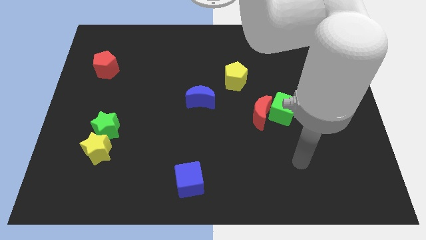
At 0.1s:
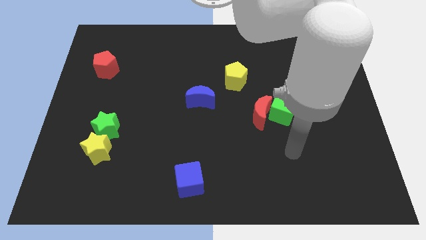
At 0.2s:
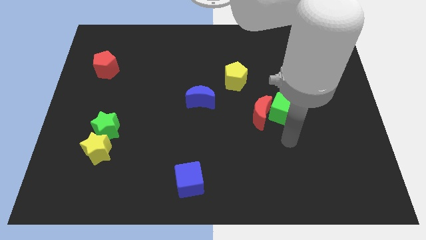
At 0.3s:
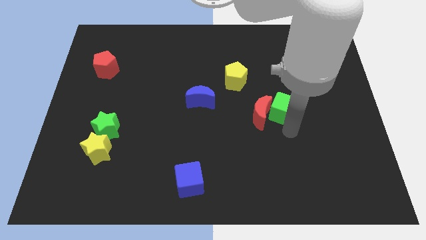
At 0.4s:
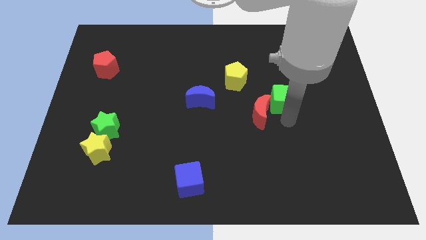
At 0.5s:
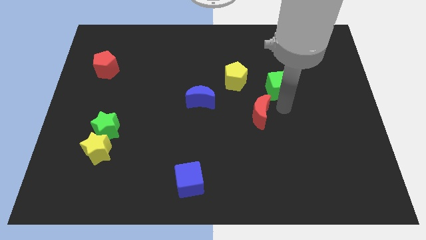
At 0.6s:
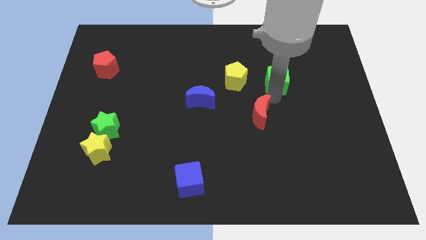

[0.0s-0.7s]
move the red moon away from the green cube

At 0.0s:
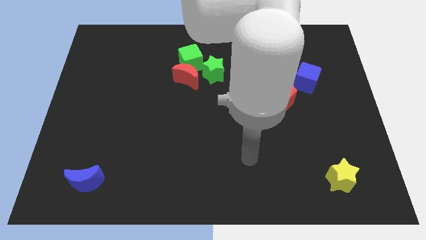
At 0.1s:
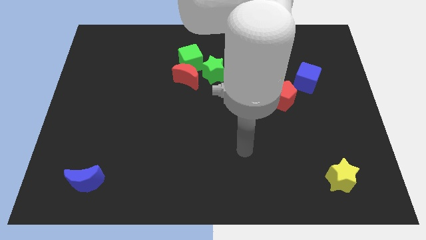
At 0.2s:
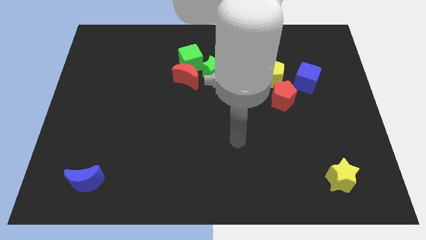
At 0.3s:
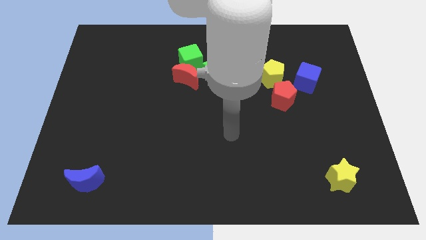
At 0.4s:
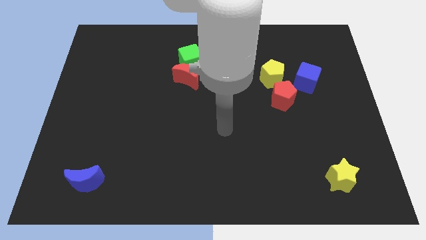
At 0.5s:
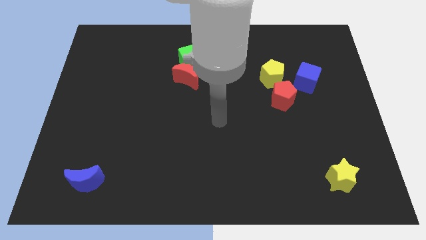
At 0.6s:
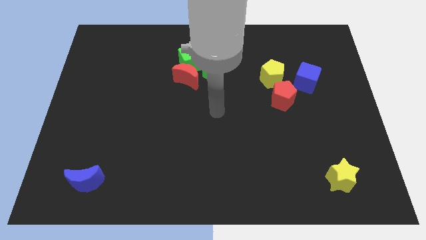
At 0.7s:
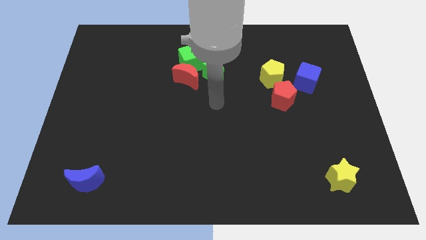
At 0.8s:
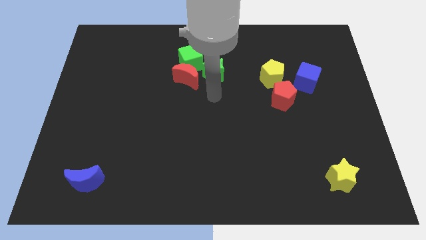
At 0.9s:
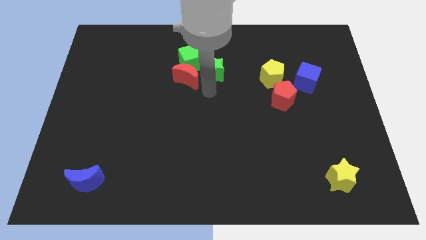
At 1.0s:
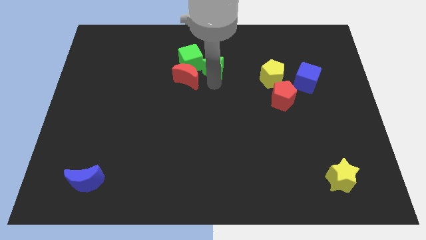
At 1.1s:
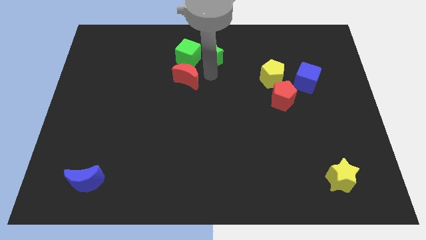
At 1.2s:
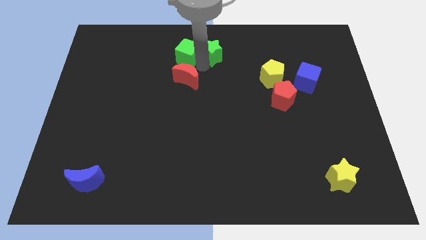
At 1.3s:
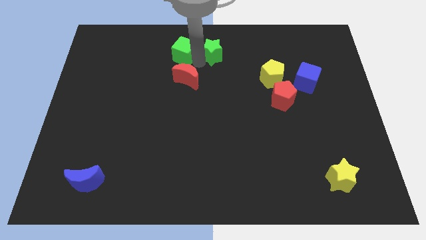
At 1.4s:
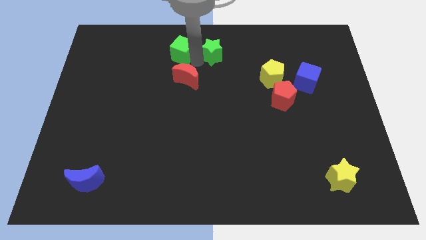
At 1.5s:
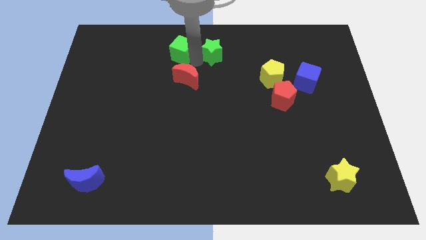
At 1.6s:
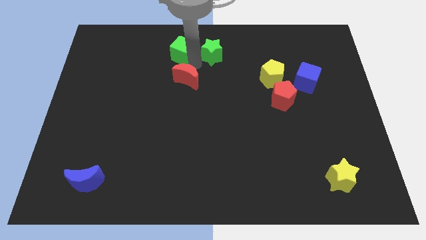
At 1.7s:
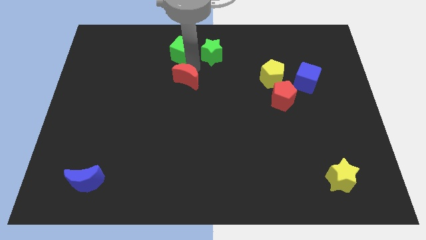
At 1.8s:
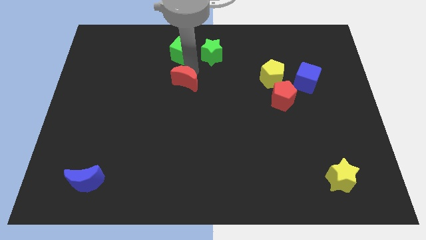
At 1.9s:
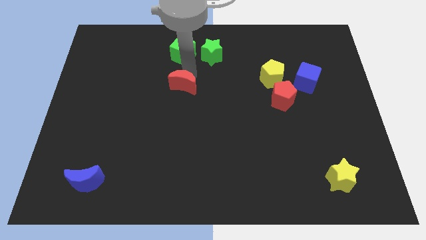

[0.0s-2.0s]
separate the red moon from the green cube and green star

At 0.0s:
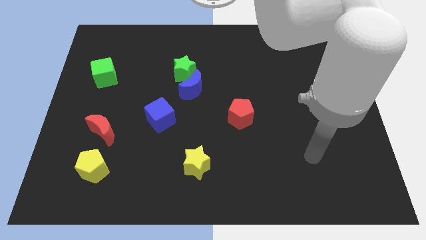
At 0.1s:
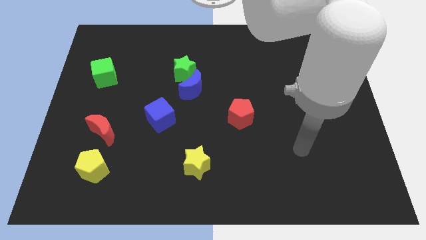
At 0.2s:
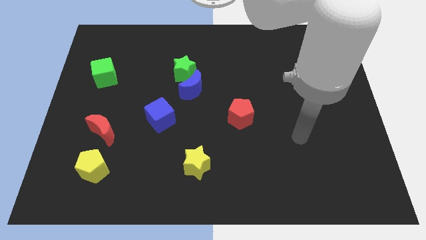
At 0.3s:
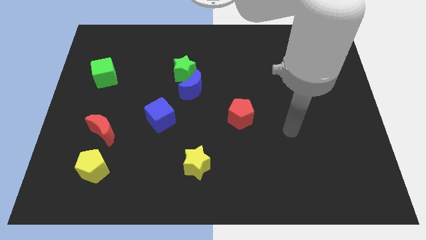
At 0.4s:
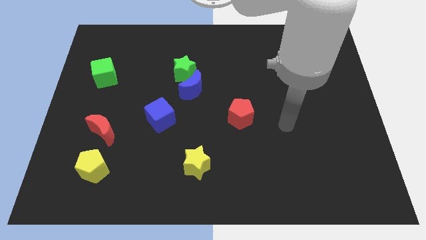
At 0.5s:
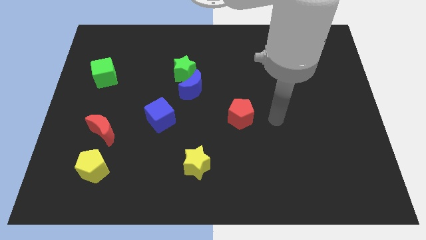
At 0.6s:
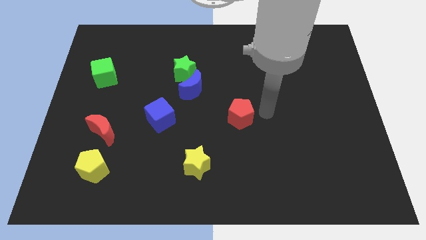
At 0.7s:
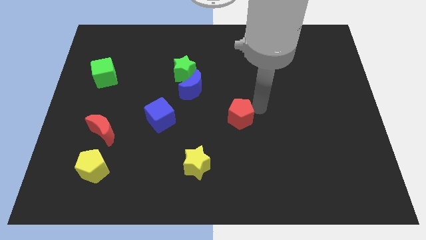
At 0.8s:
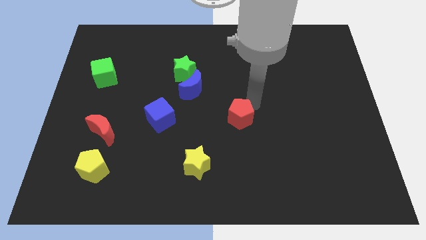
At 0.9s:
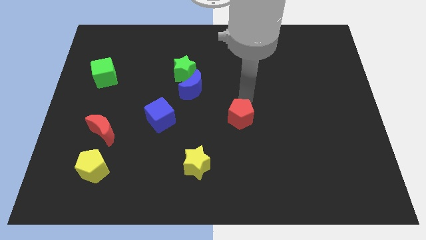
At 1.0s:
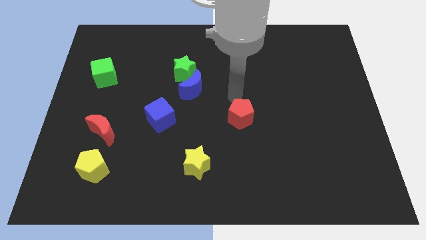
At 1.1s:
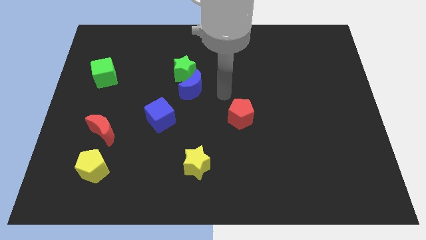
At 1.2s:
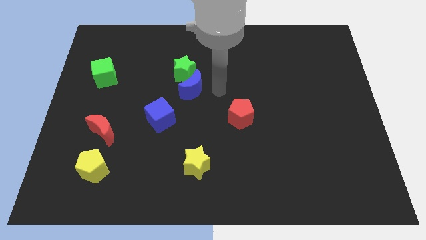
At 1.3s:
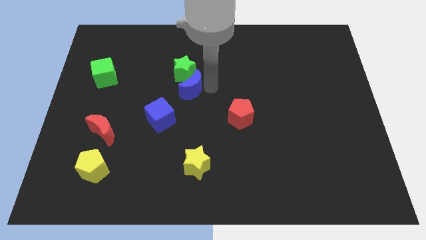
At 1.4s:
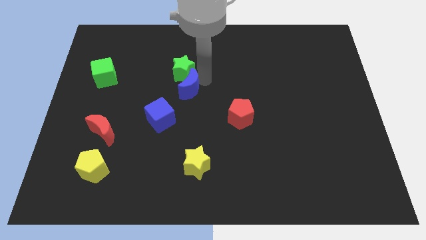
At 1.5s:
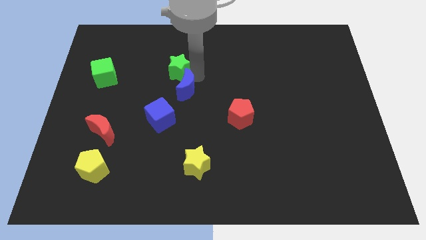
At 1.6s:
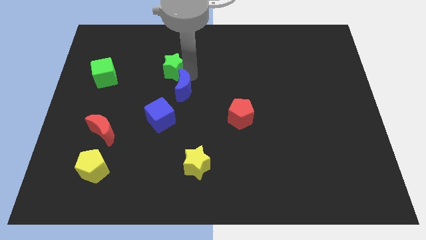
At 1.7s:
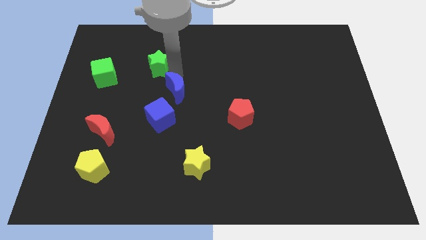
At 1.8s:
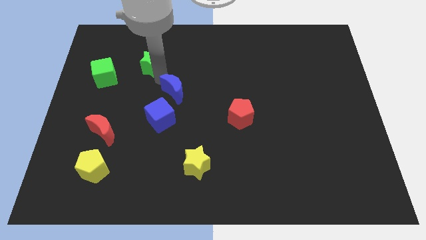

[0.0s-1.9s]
separate the blue moon from the green star

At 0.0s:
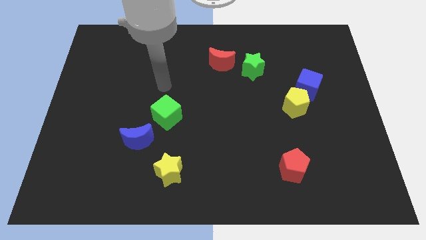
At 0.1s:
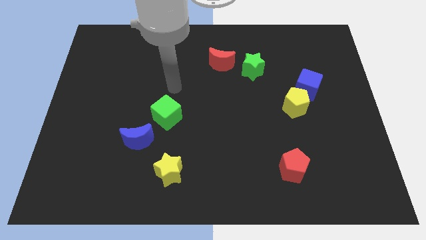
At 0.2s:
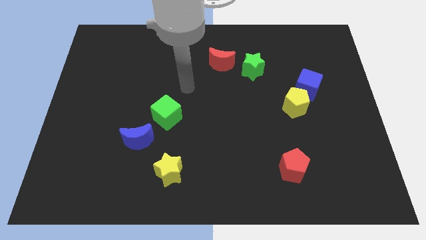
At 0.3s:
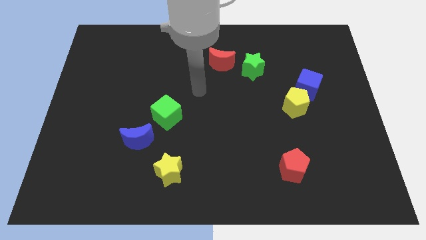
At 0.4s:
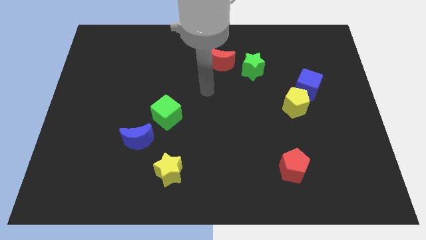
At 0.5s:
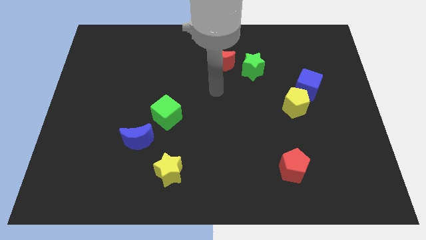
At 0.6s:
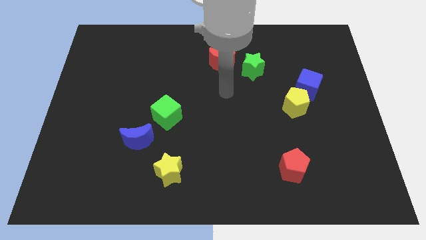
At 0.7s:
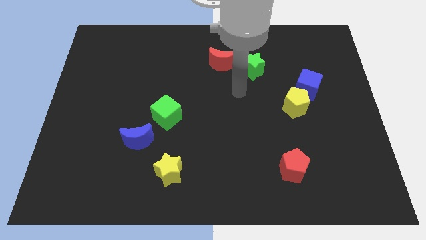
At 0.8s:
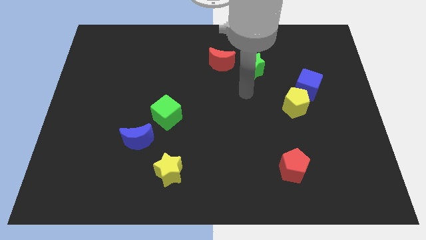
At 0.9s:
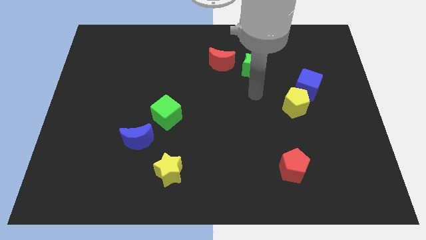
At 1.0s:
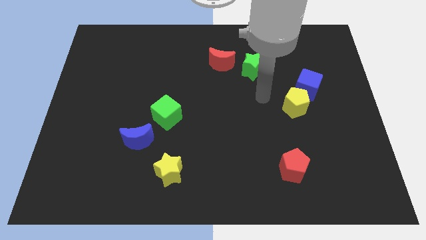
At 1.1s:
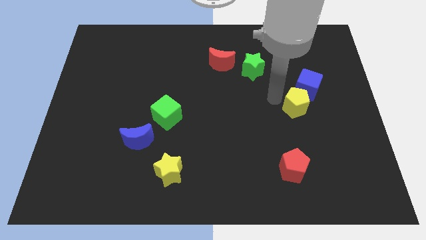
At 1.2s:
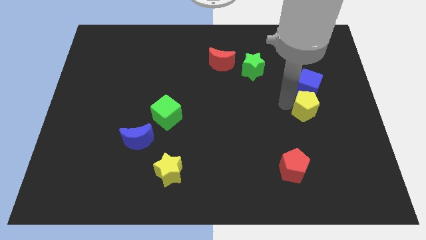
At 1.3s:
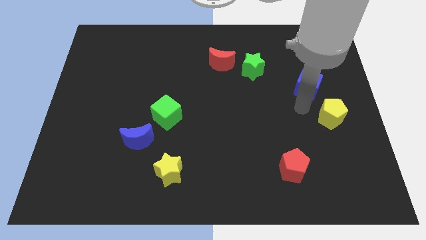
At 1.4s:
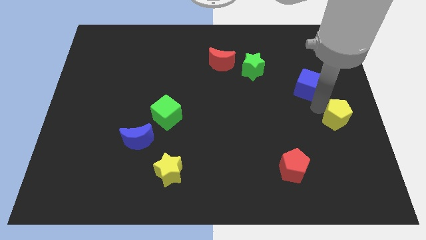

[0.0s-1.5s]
separate the blue cube from the yellow pentagon

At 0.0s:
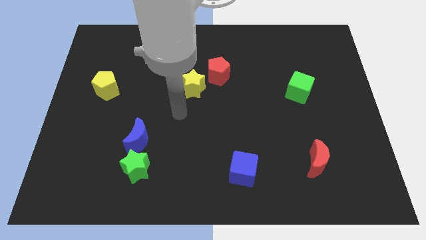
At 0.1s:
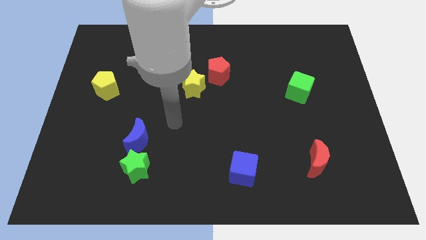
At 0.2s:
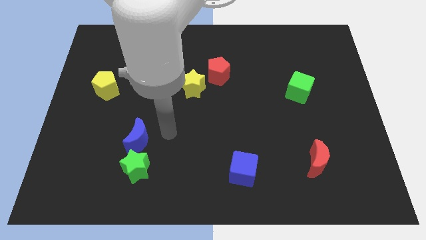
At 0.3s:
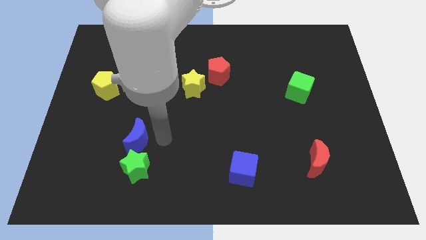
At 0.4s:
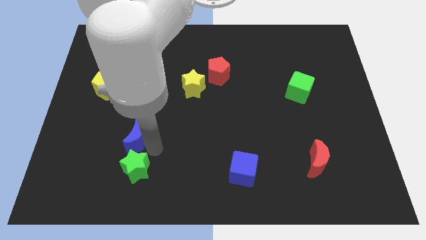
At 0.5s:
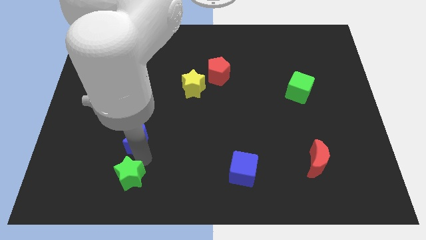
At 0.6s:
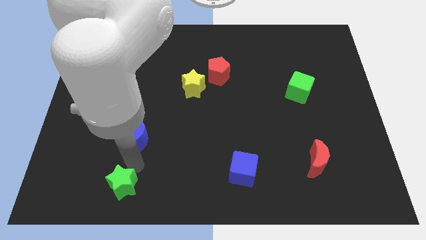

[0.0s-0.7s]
move the blue moon away from the green star

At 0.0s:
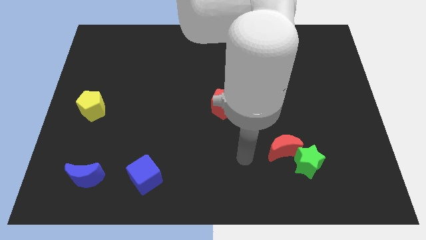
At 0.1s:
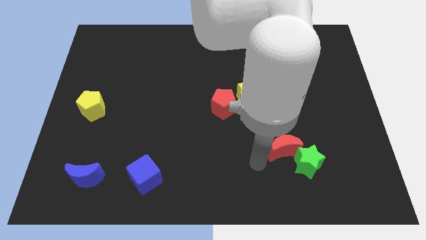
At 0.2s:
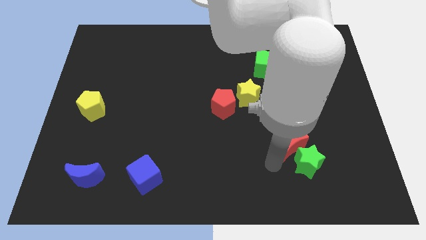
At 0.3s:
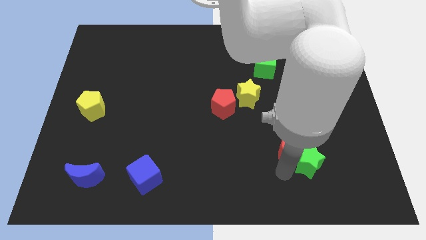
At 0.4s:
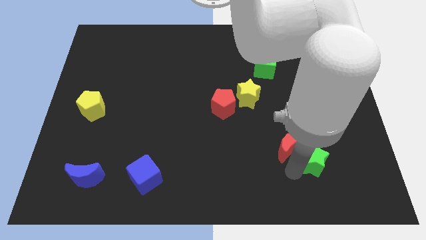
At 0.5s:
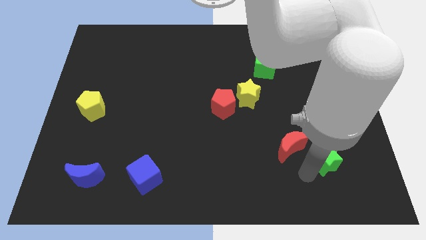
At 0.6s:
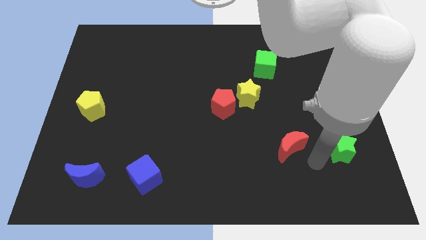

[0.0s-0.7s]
pull the red moon apart from the green star

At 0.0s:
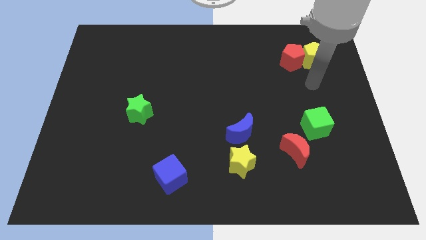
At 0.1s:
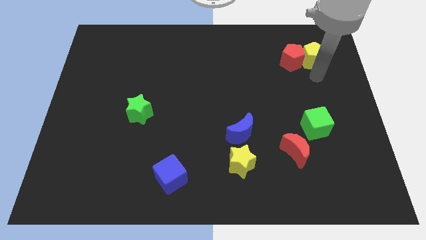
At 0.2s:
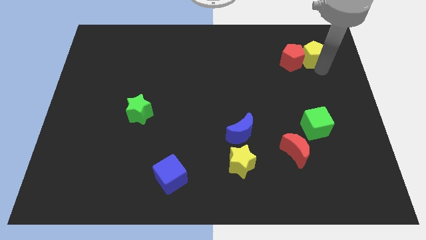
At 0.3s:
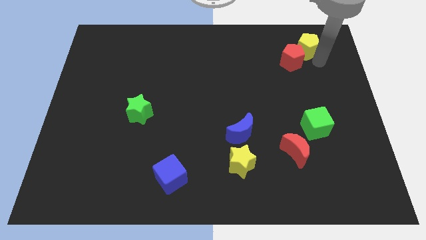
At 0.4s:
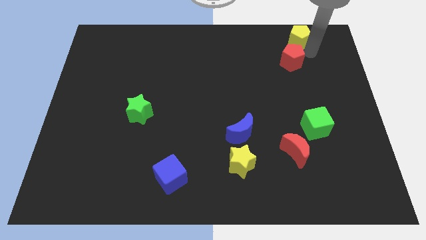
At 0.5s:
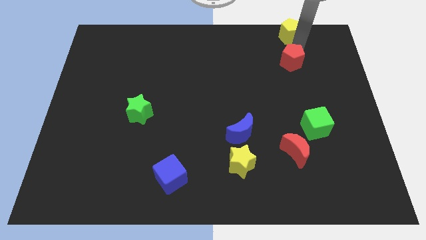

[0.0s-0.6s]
pull the red pentagon apart from the yellow pentagon

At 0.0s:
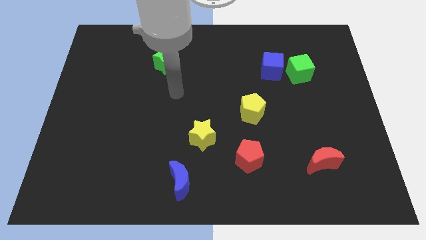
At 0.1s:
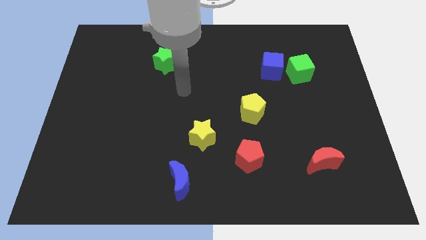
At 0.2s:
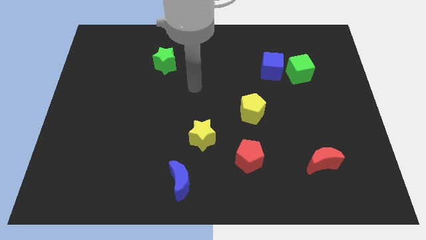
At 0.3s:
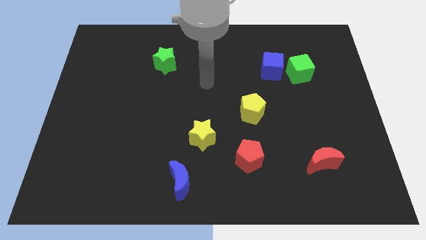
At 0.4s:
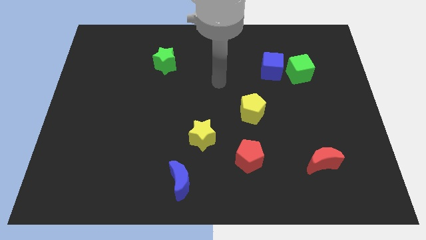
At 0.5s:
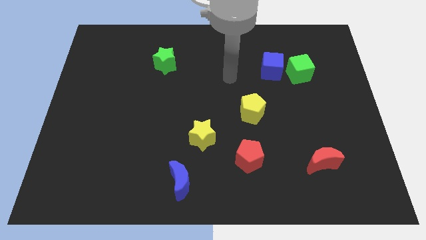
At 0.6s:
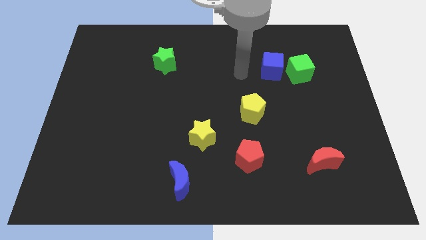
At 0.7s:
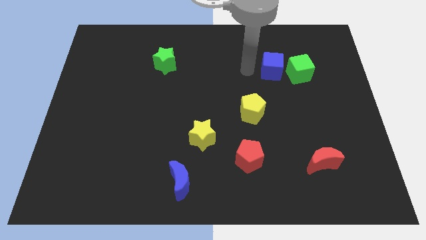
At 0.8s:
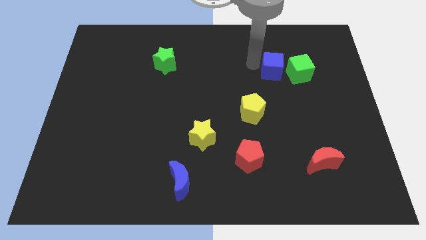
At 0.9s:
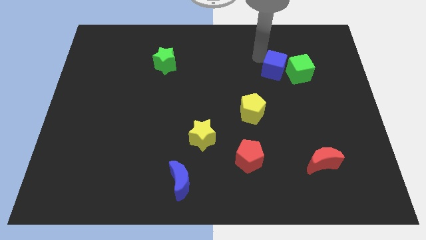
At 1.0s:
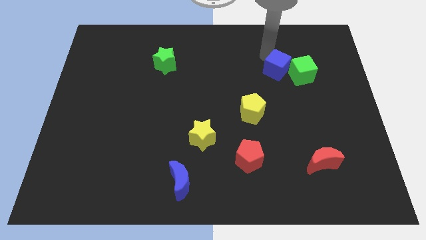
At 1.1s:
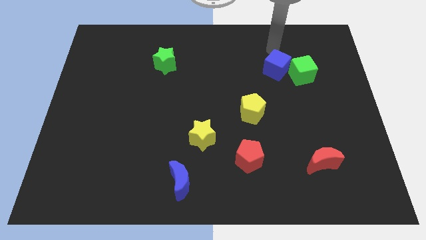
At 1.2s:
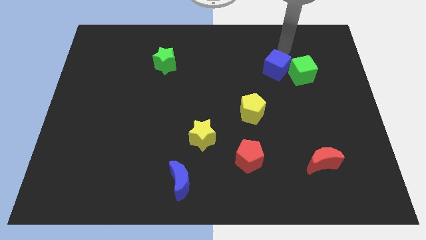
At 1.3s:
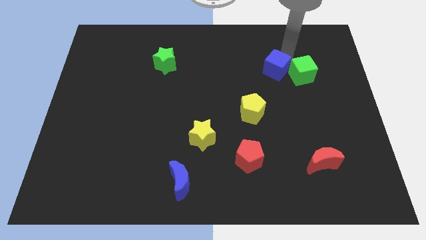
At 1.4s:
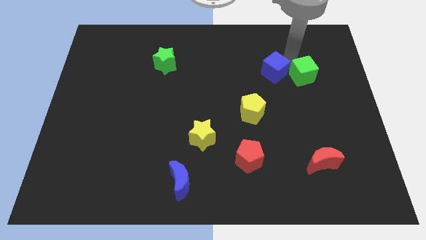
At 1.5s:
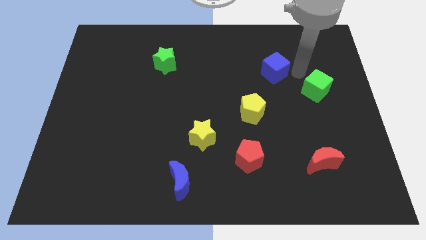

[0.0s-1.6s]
move the blue cube away from the green cube
